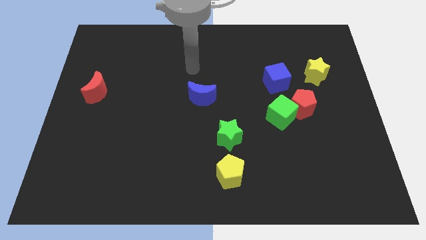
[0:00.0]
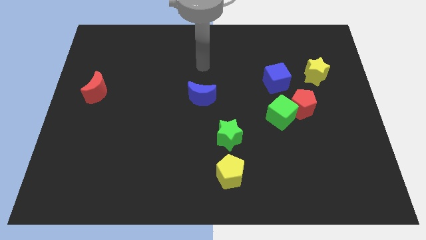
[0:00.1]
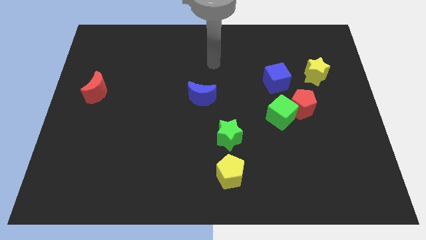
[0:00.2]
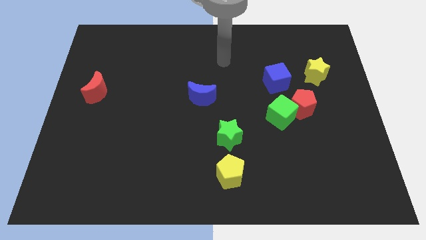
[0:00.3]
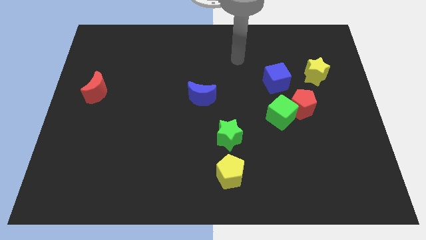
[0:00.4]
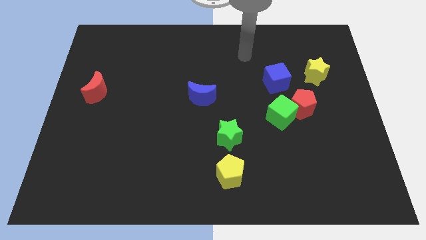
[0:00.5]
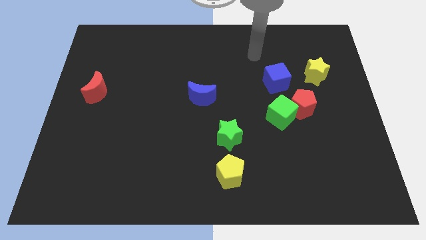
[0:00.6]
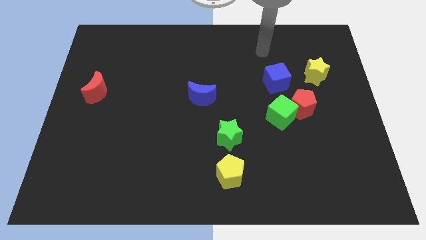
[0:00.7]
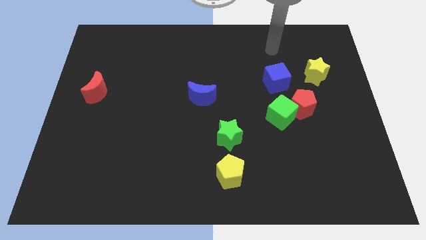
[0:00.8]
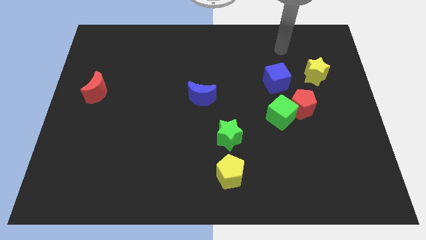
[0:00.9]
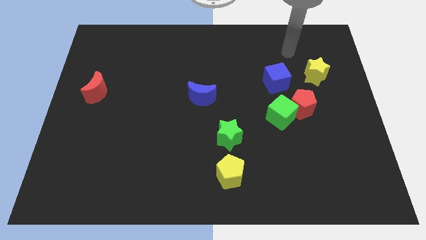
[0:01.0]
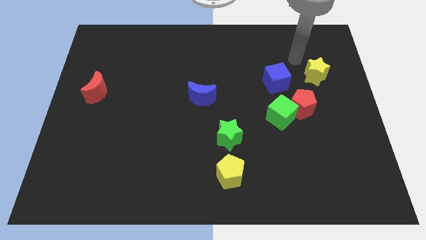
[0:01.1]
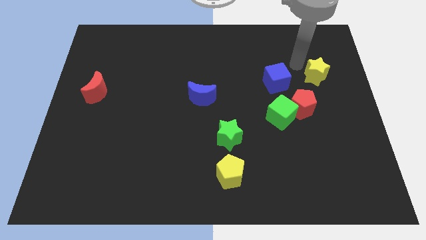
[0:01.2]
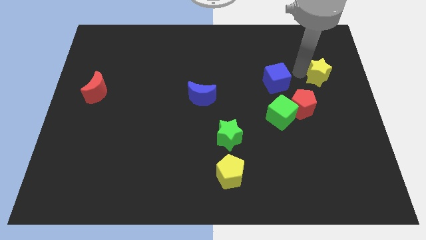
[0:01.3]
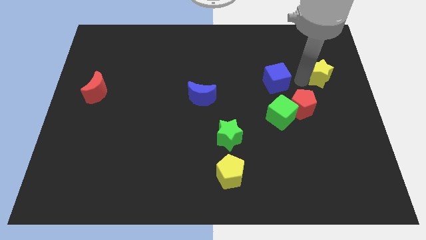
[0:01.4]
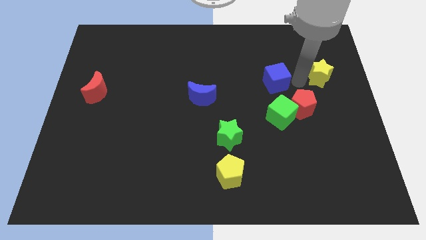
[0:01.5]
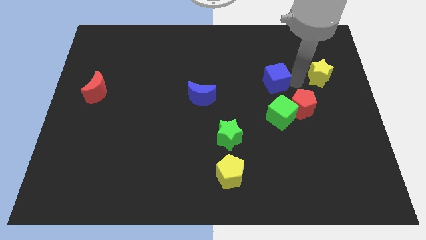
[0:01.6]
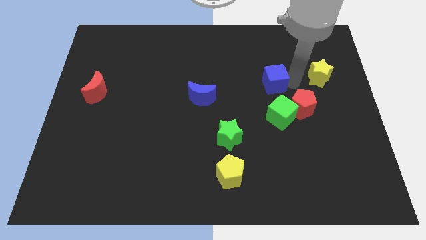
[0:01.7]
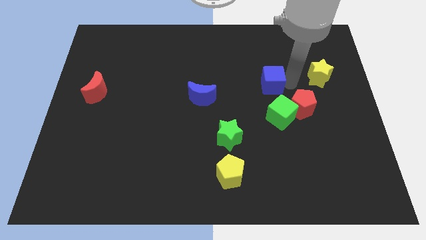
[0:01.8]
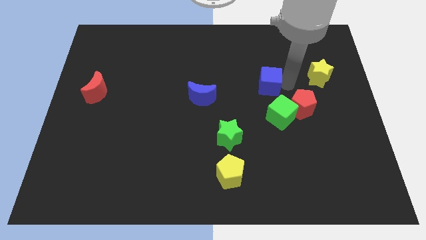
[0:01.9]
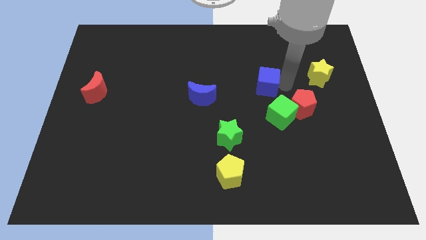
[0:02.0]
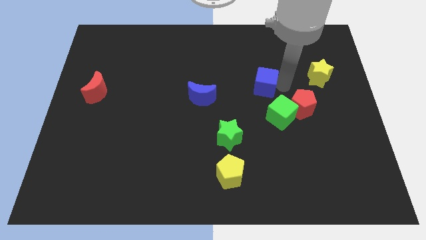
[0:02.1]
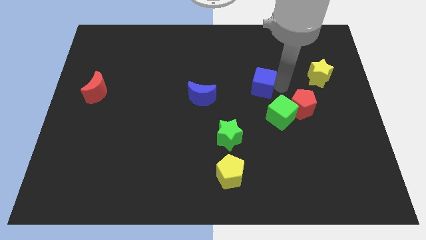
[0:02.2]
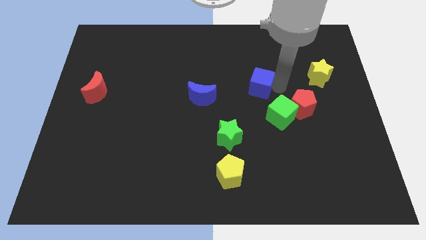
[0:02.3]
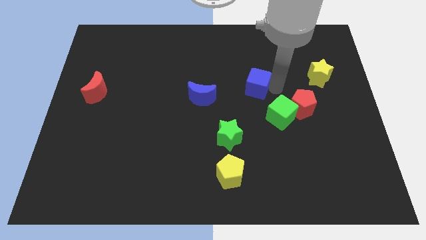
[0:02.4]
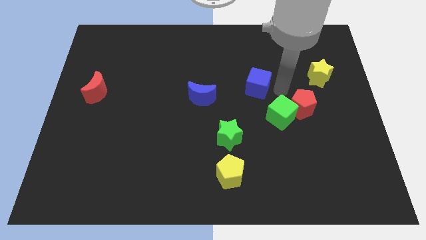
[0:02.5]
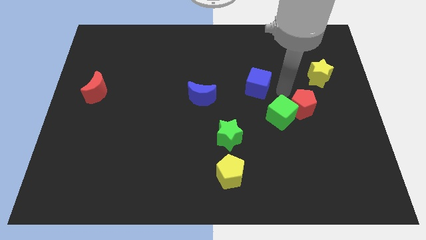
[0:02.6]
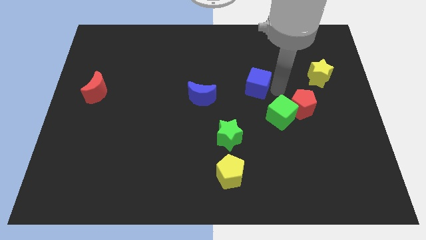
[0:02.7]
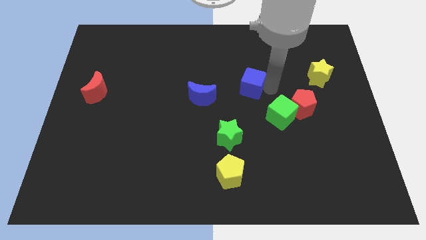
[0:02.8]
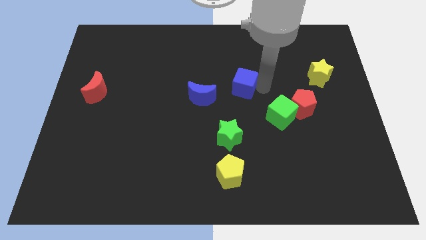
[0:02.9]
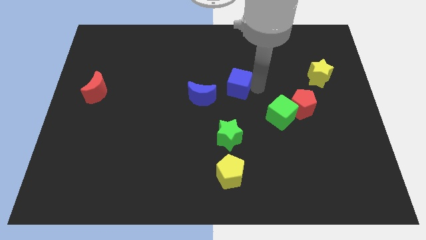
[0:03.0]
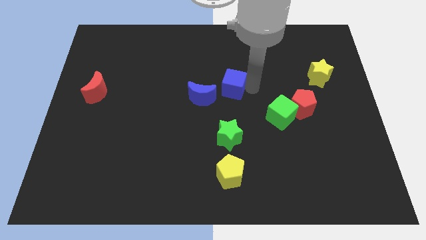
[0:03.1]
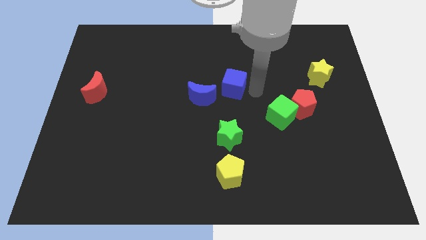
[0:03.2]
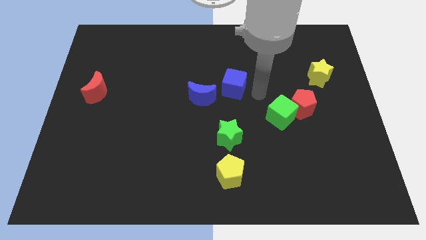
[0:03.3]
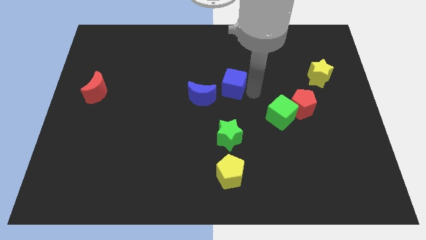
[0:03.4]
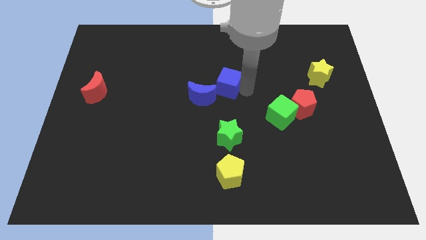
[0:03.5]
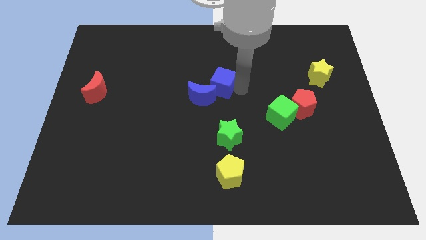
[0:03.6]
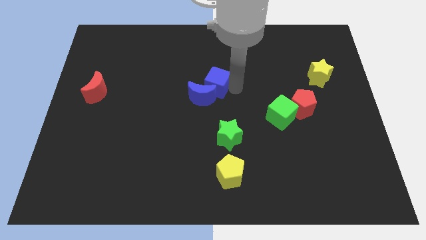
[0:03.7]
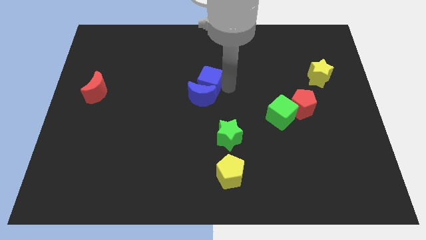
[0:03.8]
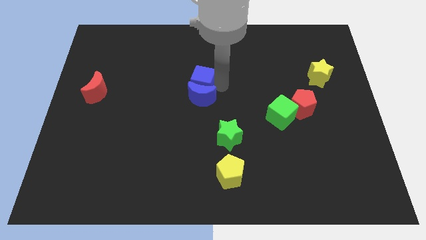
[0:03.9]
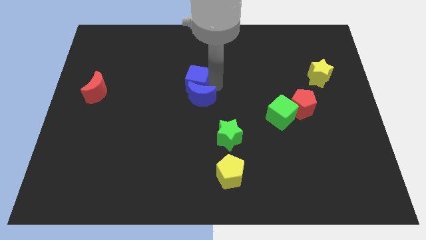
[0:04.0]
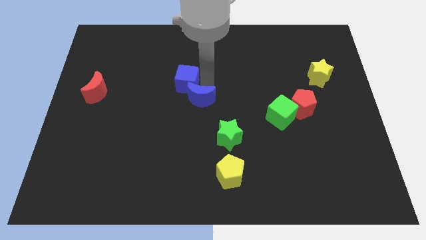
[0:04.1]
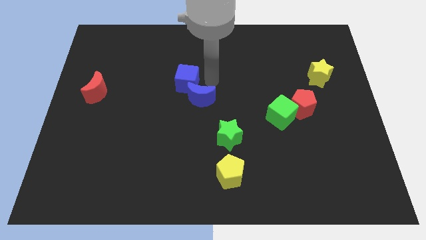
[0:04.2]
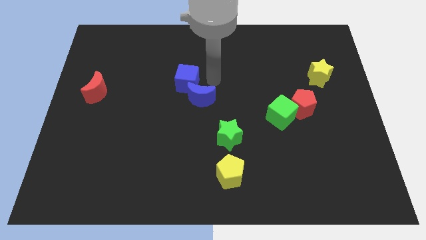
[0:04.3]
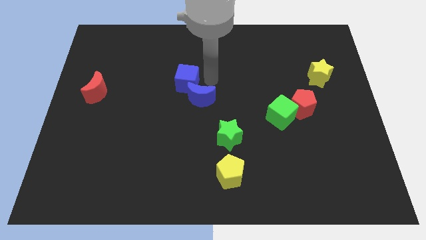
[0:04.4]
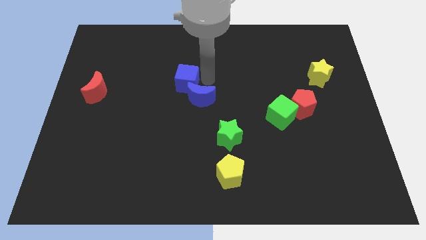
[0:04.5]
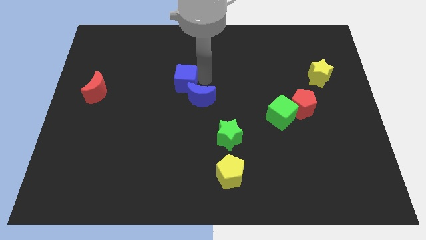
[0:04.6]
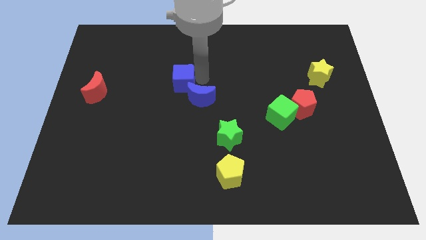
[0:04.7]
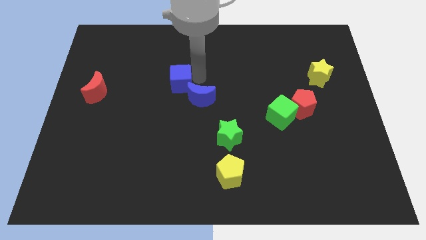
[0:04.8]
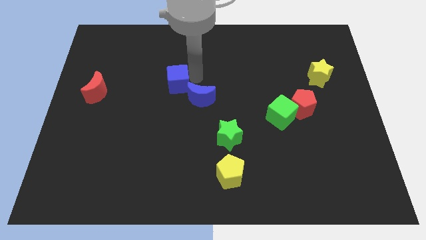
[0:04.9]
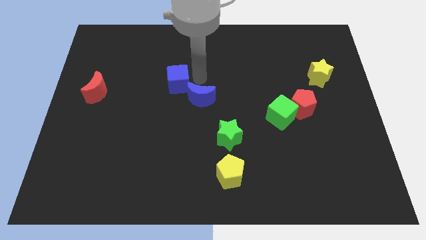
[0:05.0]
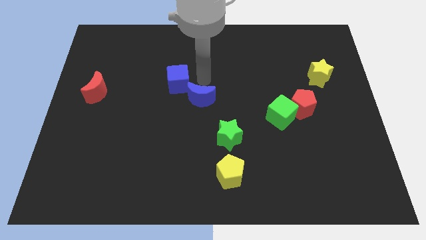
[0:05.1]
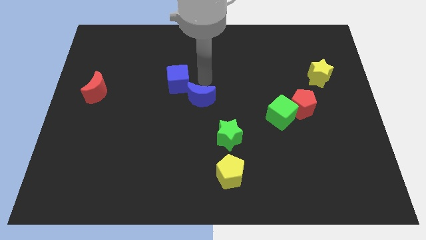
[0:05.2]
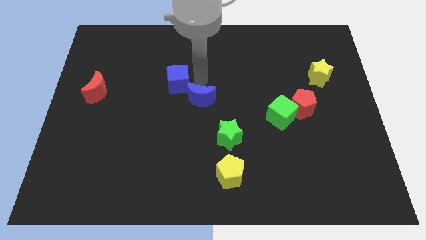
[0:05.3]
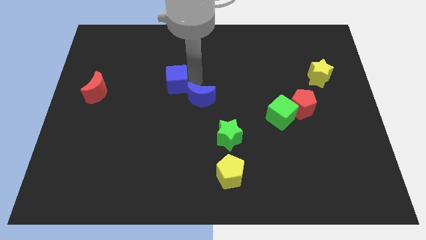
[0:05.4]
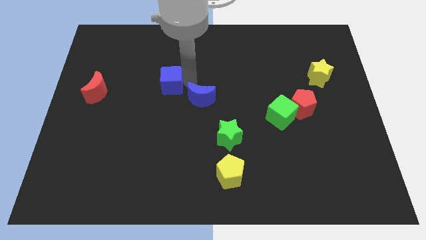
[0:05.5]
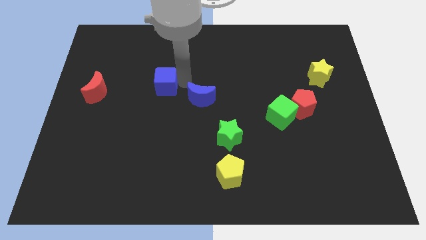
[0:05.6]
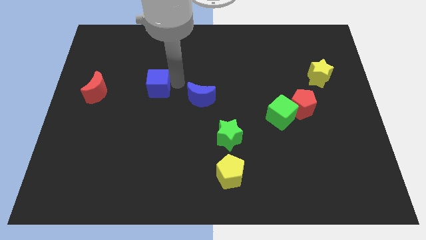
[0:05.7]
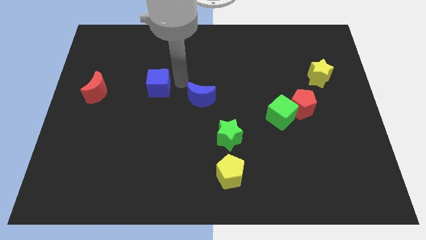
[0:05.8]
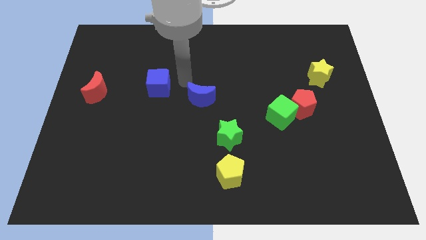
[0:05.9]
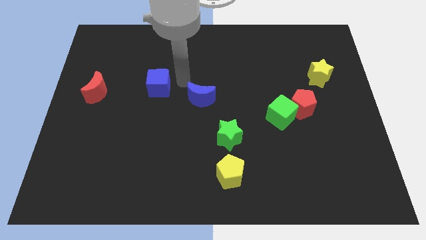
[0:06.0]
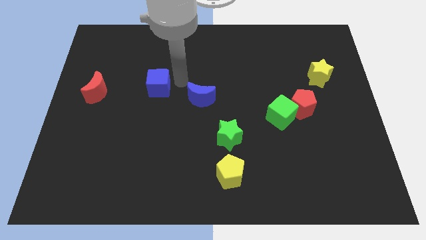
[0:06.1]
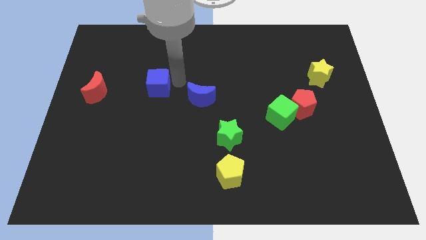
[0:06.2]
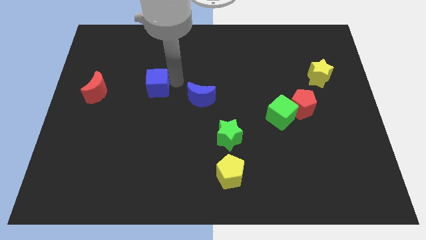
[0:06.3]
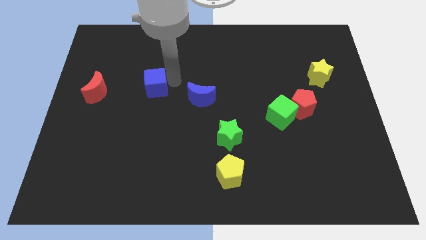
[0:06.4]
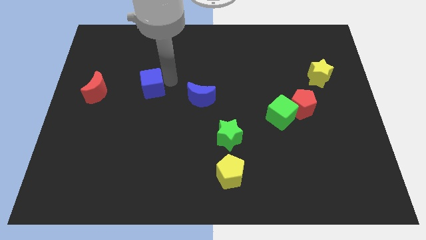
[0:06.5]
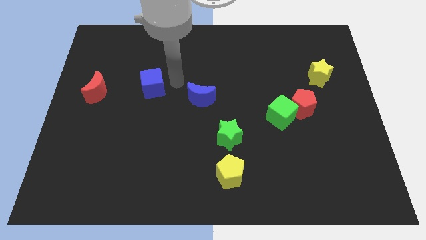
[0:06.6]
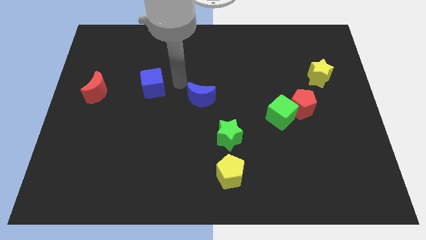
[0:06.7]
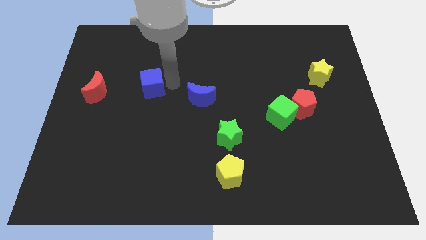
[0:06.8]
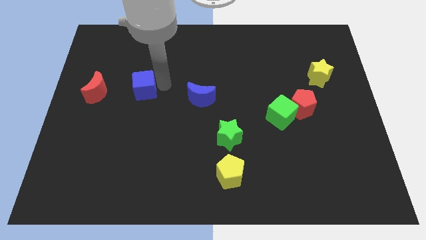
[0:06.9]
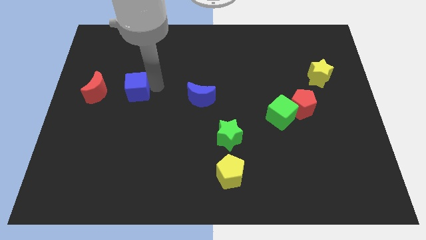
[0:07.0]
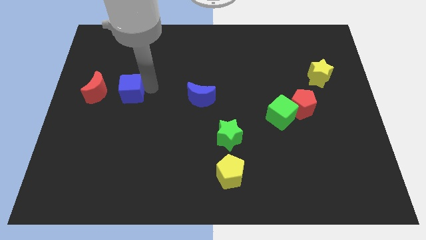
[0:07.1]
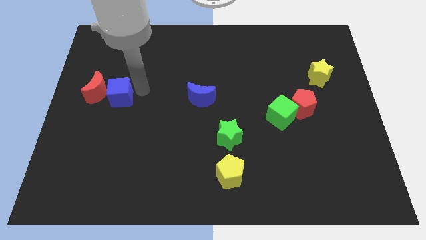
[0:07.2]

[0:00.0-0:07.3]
slide the blue cube towards the red moon
